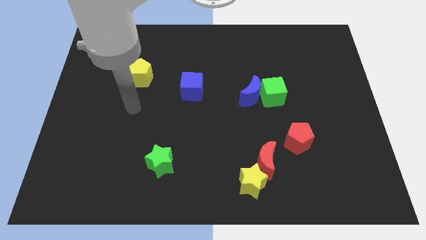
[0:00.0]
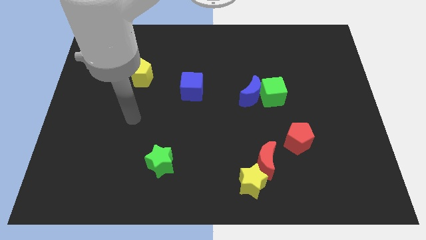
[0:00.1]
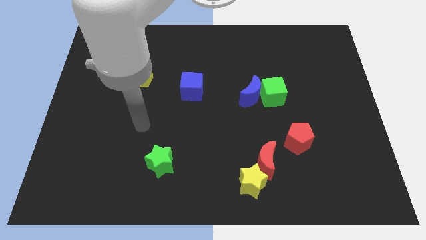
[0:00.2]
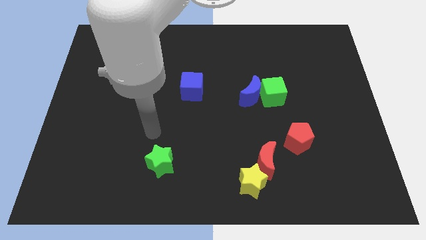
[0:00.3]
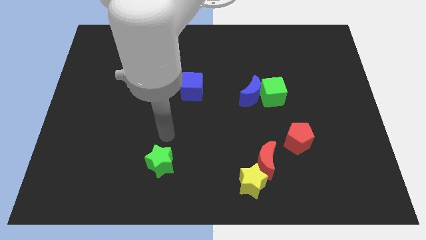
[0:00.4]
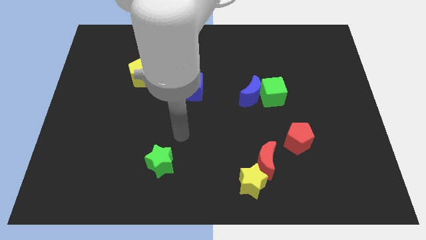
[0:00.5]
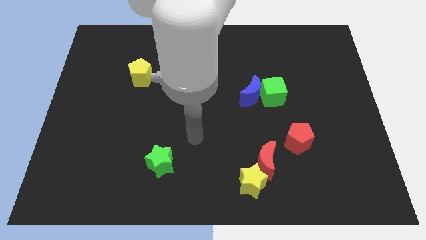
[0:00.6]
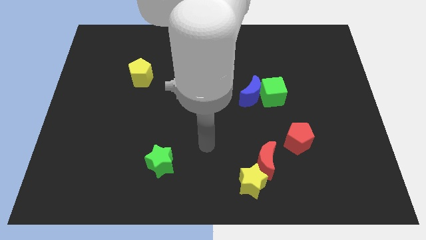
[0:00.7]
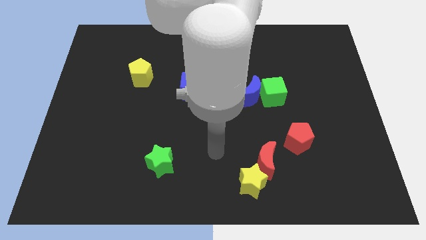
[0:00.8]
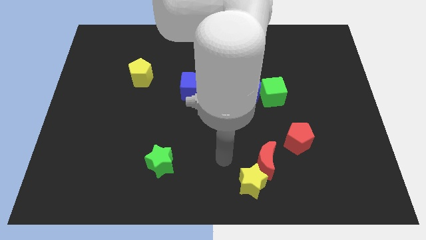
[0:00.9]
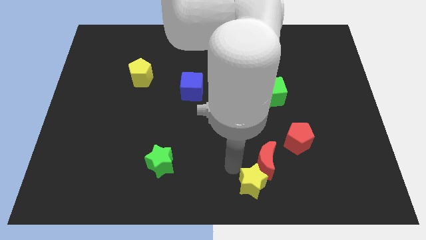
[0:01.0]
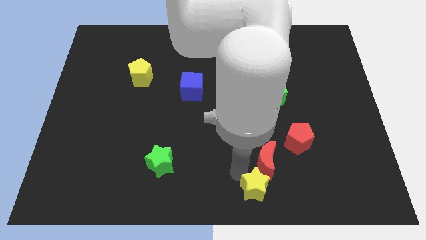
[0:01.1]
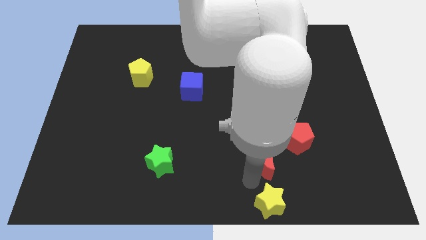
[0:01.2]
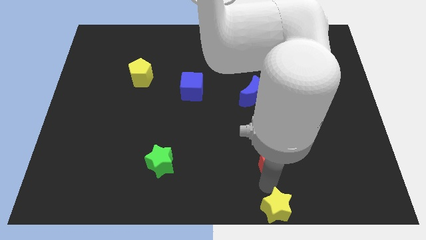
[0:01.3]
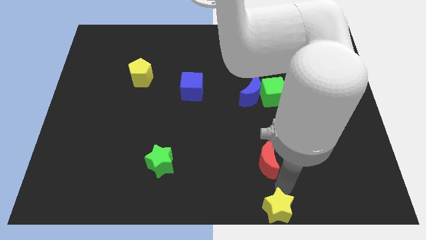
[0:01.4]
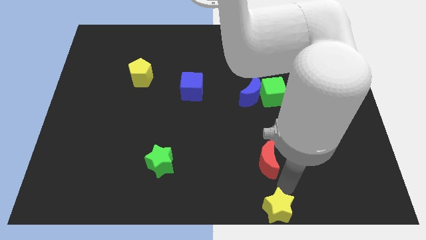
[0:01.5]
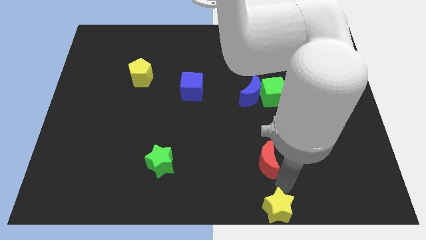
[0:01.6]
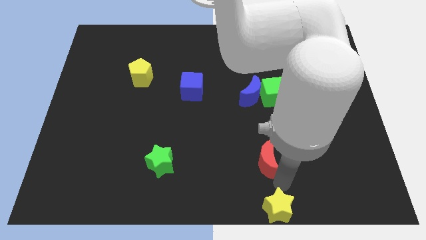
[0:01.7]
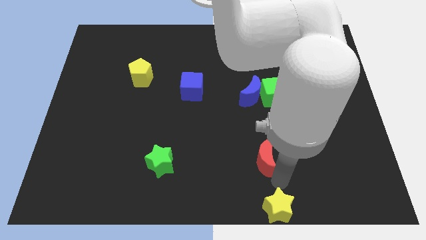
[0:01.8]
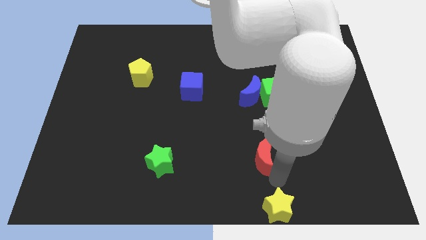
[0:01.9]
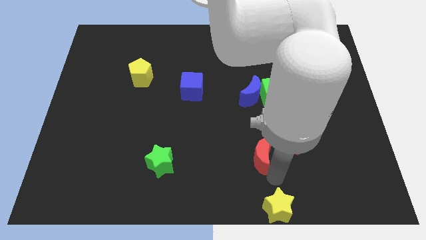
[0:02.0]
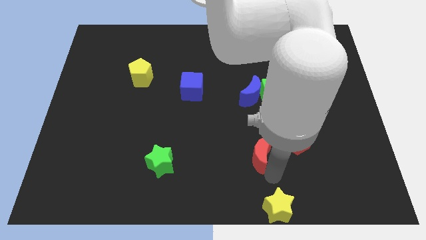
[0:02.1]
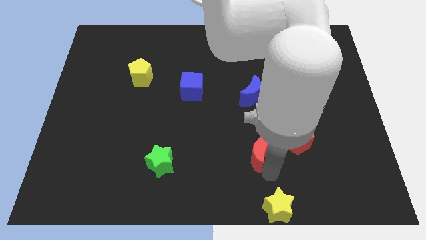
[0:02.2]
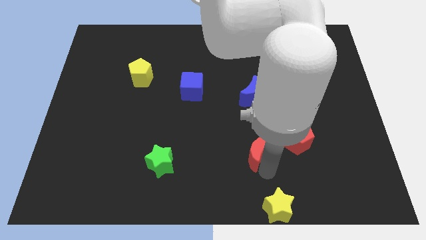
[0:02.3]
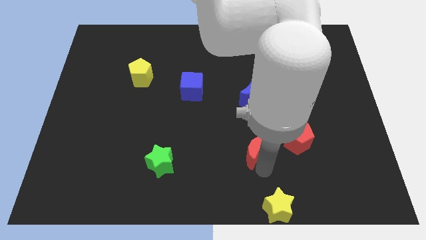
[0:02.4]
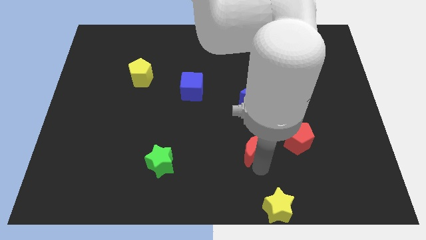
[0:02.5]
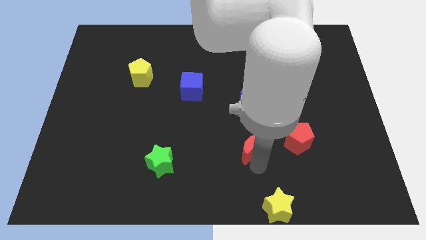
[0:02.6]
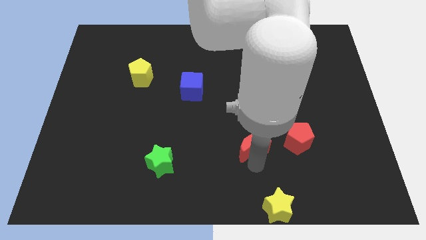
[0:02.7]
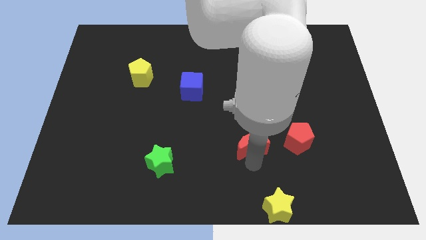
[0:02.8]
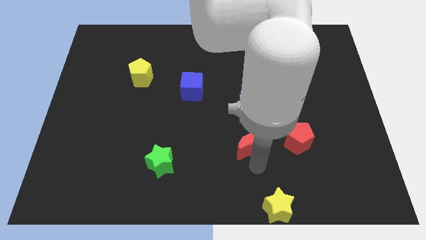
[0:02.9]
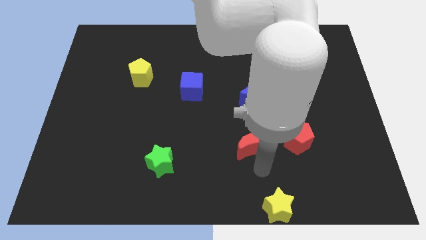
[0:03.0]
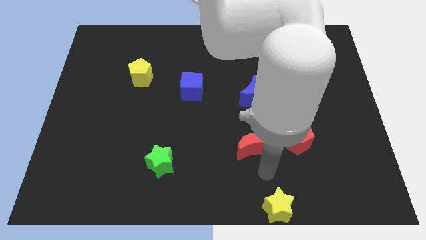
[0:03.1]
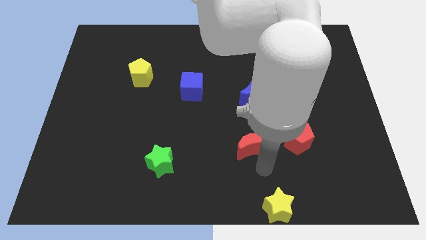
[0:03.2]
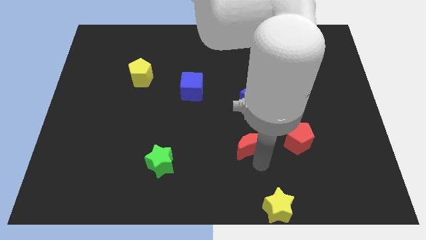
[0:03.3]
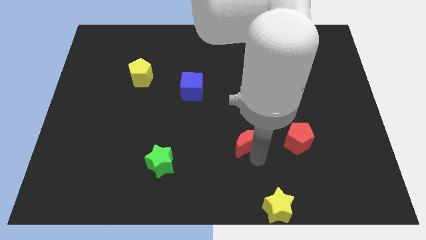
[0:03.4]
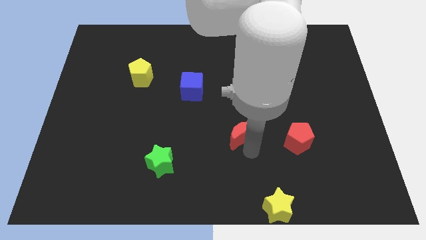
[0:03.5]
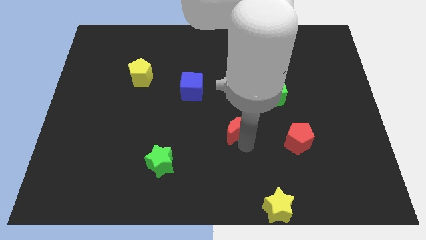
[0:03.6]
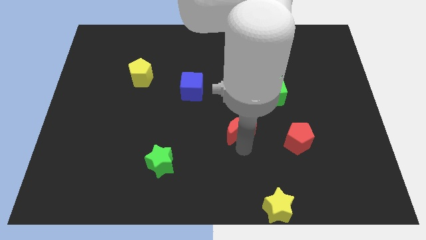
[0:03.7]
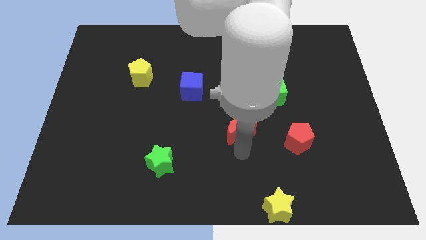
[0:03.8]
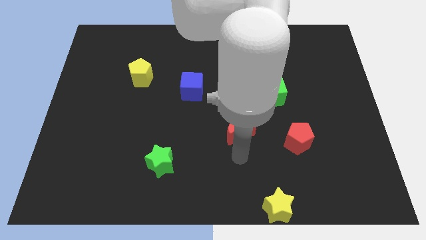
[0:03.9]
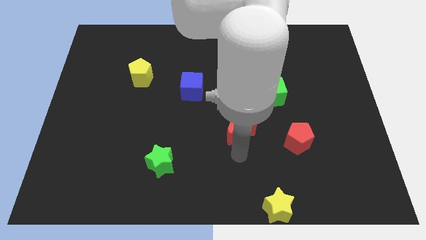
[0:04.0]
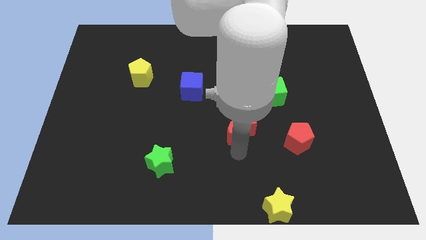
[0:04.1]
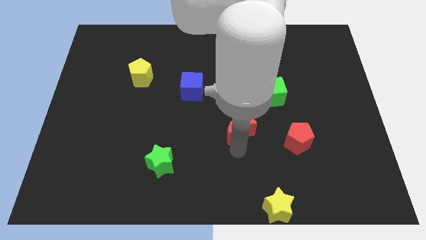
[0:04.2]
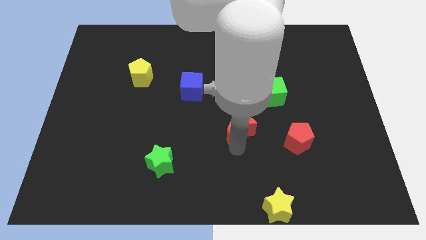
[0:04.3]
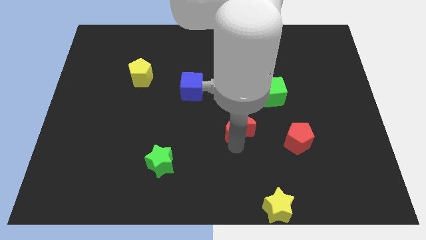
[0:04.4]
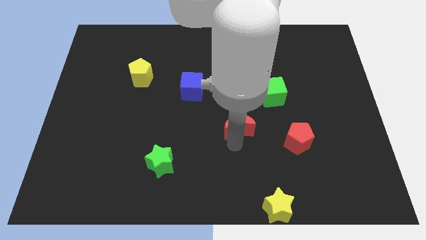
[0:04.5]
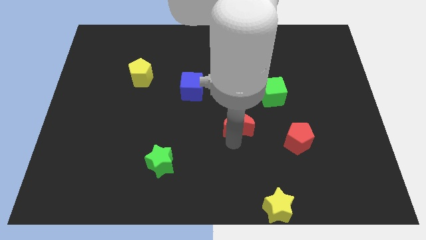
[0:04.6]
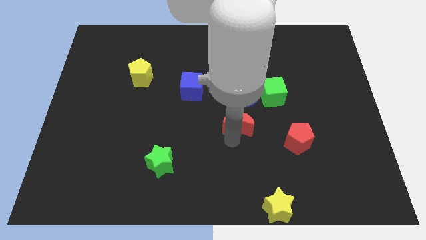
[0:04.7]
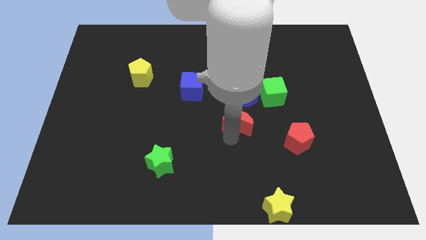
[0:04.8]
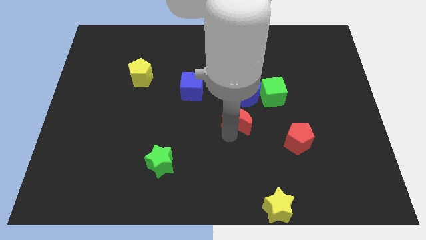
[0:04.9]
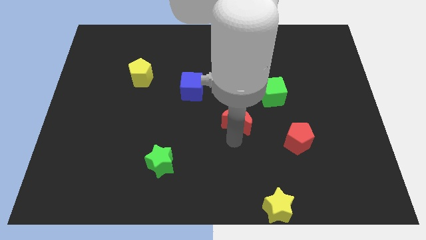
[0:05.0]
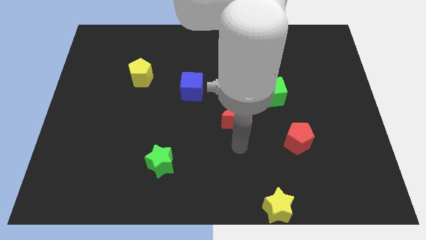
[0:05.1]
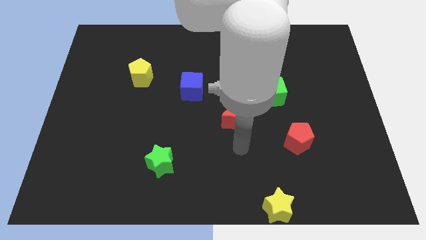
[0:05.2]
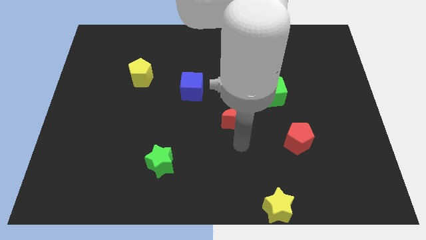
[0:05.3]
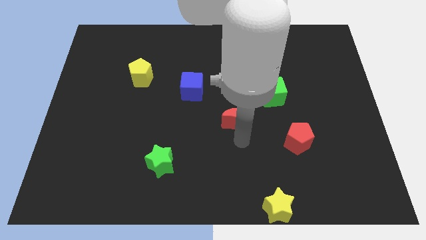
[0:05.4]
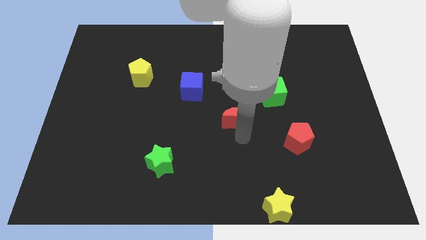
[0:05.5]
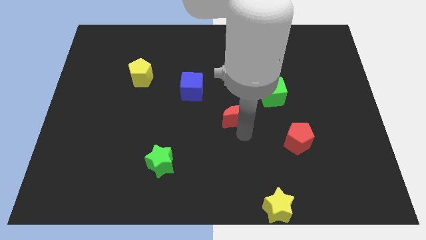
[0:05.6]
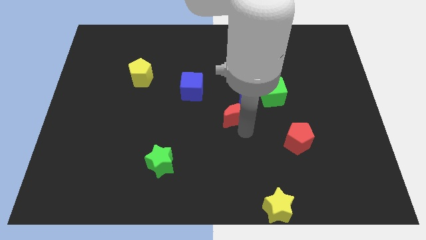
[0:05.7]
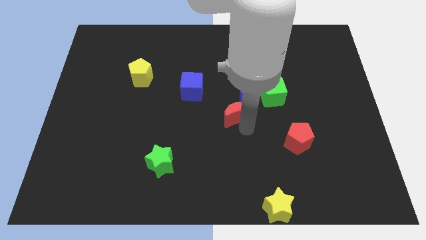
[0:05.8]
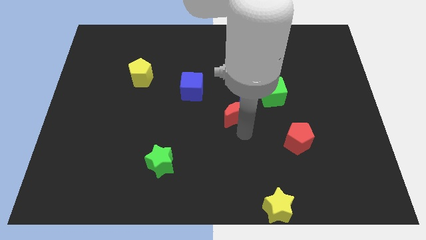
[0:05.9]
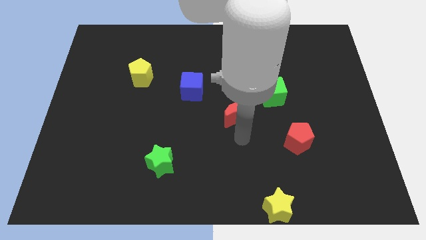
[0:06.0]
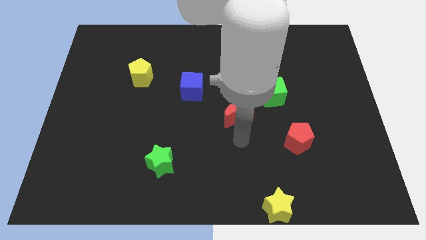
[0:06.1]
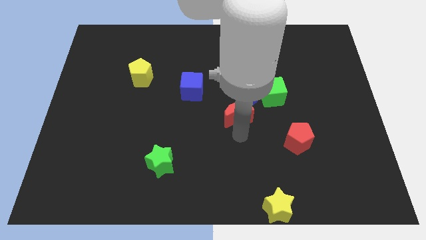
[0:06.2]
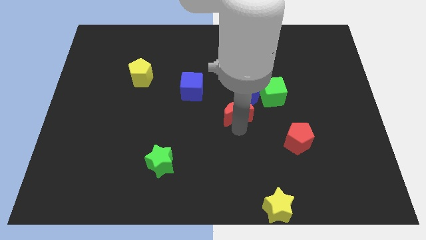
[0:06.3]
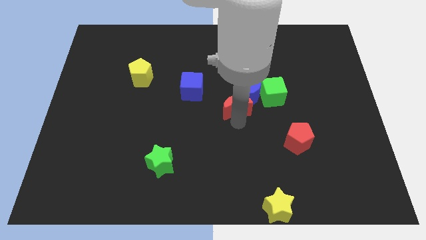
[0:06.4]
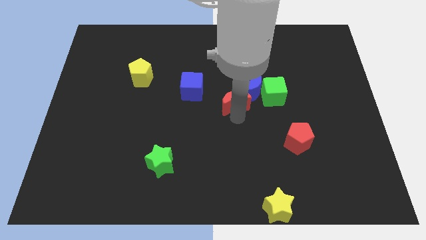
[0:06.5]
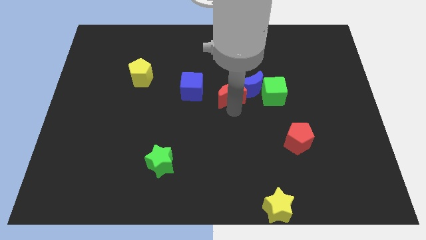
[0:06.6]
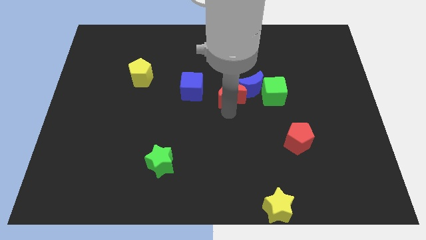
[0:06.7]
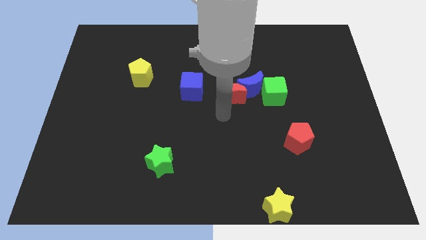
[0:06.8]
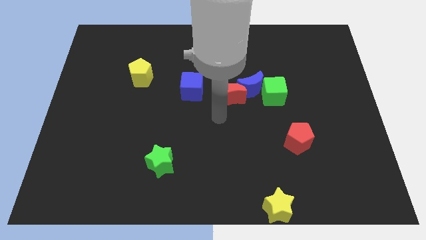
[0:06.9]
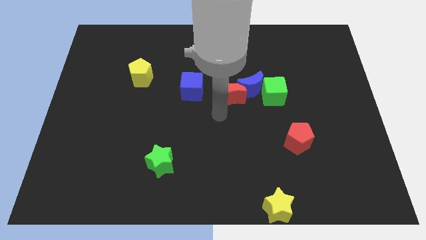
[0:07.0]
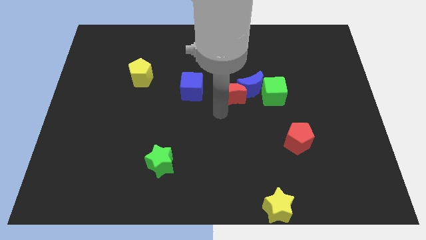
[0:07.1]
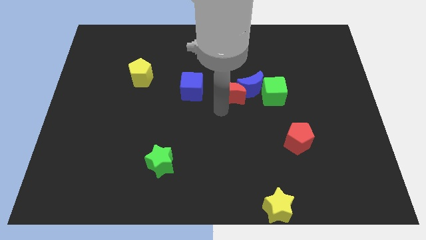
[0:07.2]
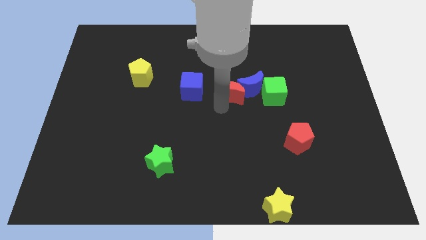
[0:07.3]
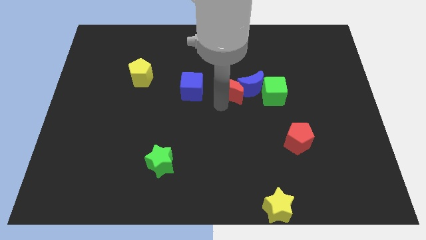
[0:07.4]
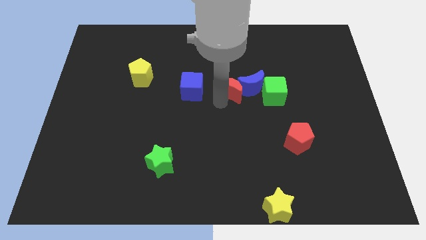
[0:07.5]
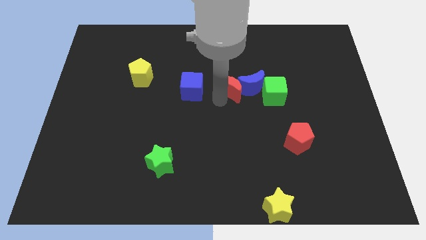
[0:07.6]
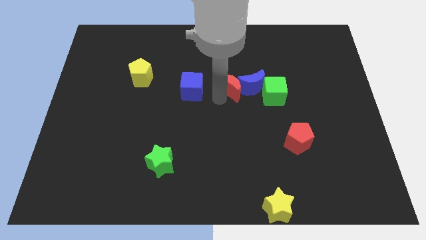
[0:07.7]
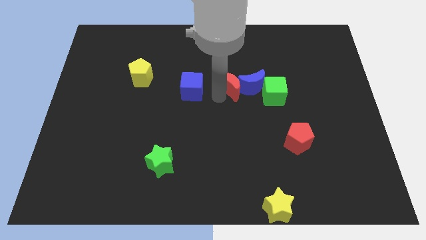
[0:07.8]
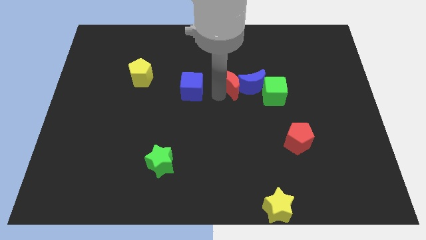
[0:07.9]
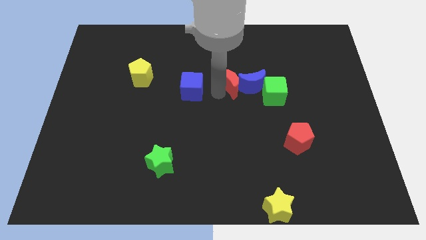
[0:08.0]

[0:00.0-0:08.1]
move the red moon upwards
